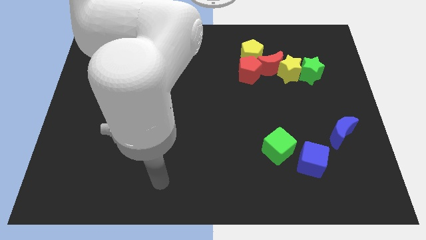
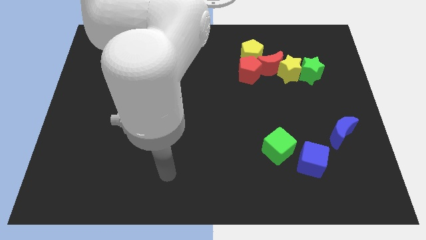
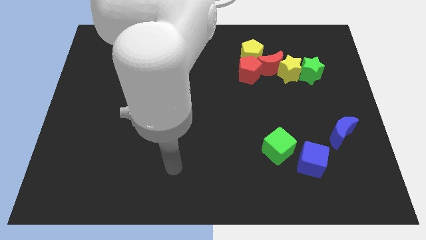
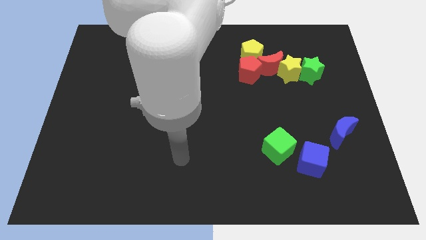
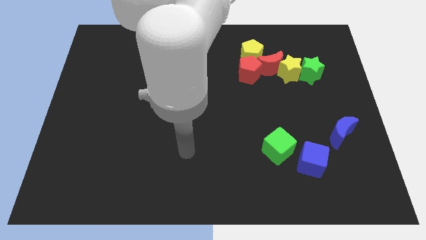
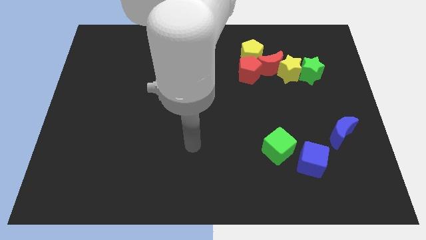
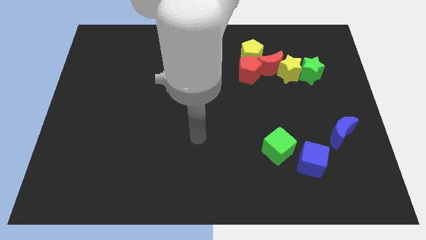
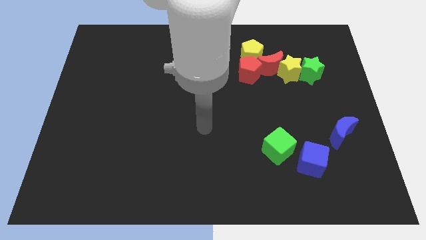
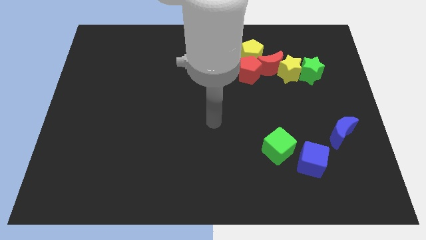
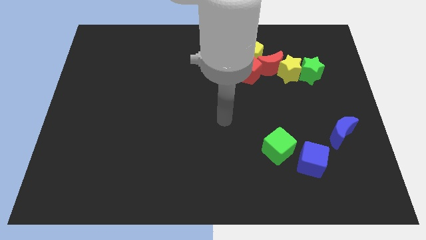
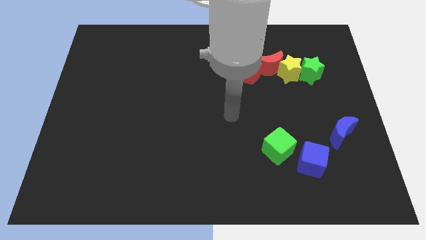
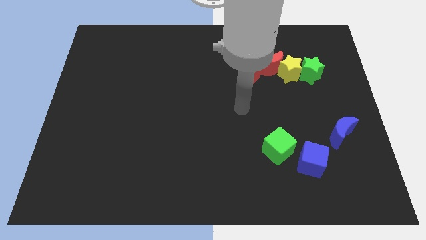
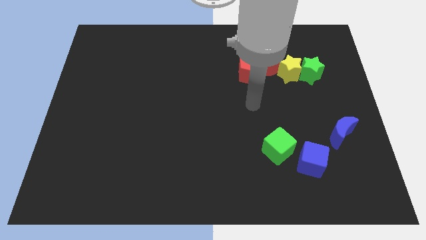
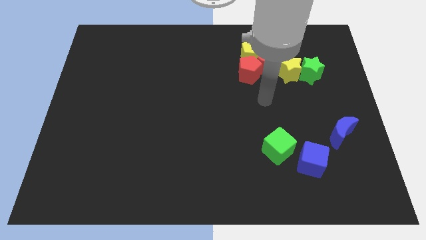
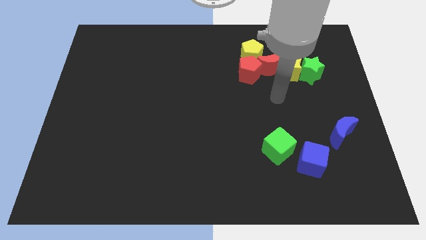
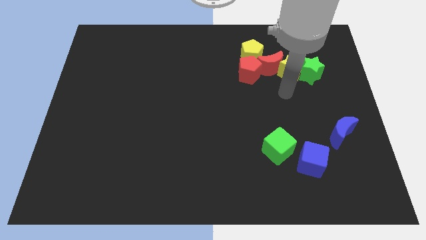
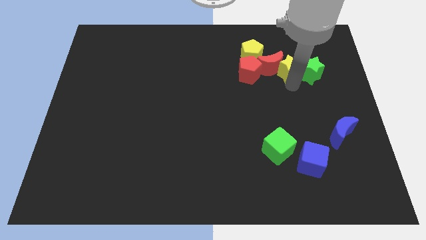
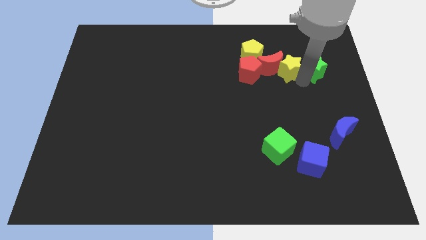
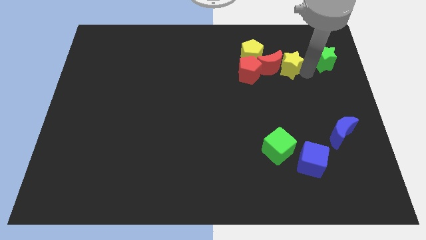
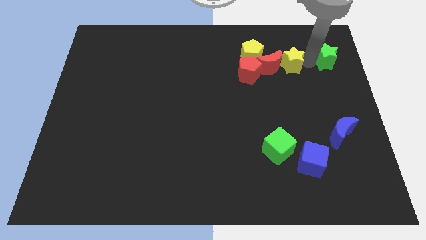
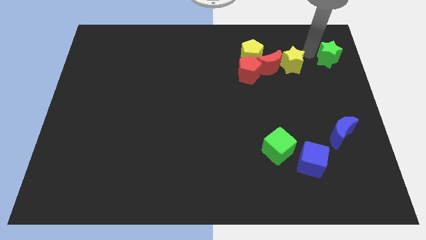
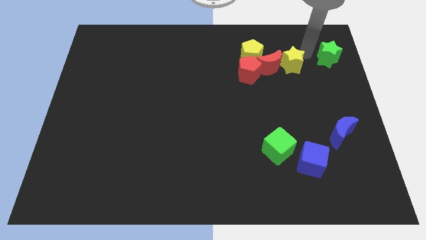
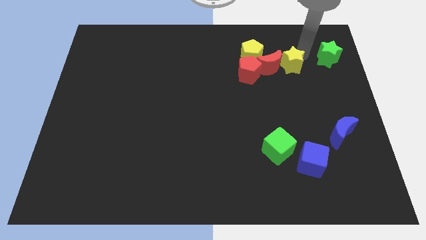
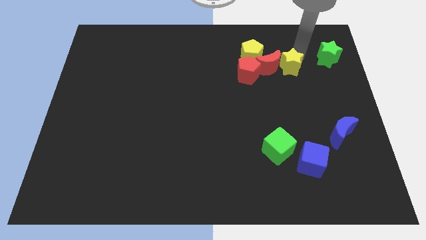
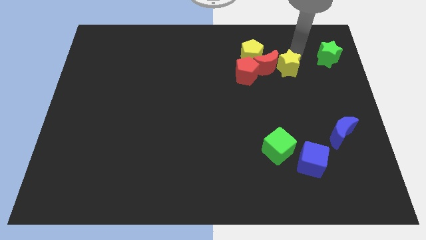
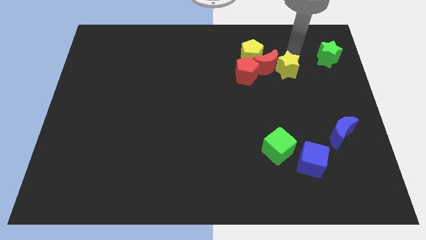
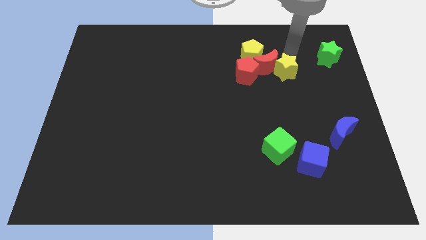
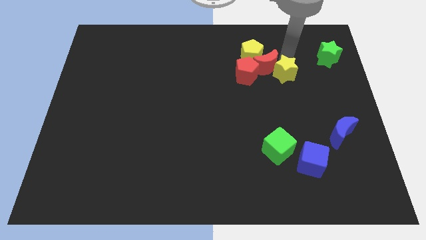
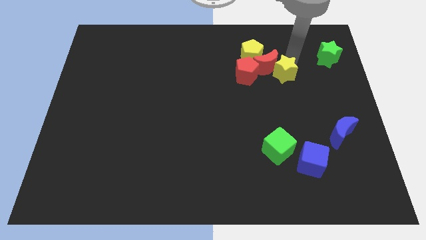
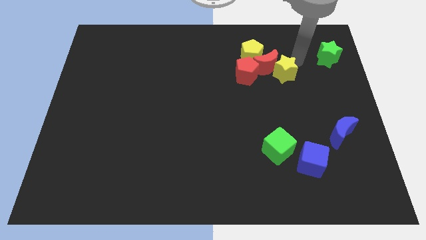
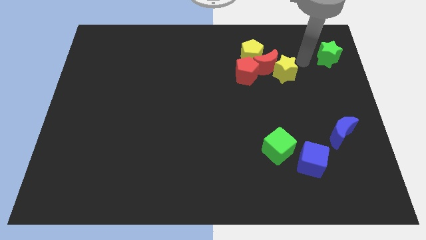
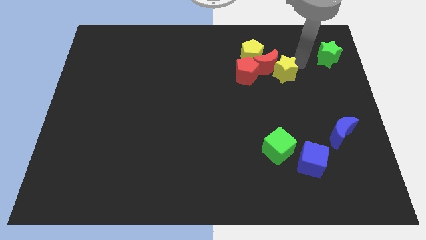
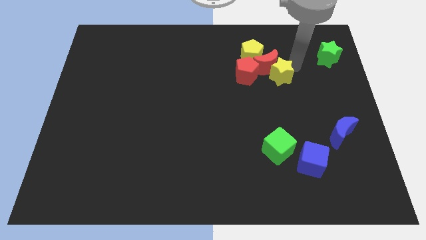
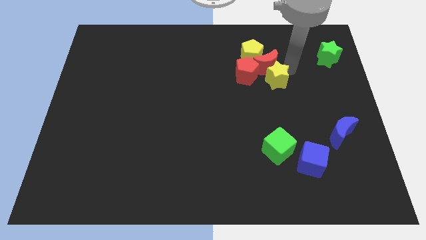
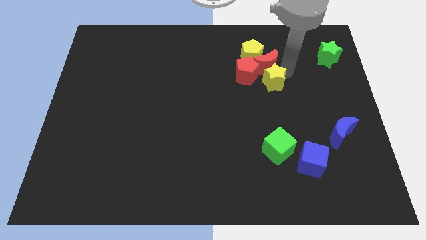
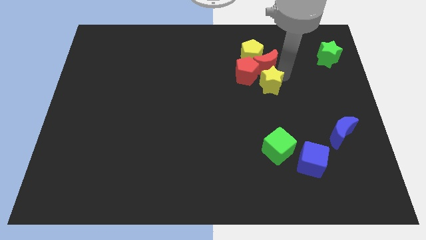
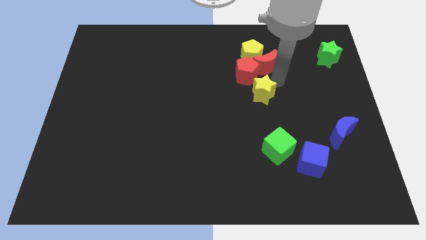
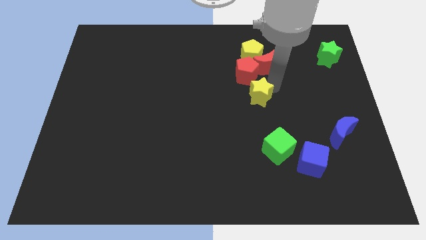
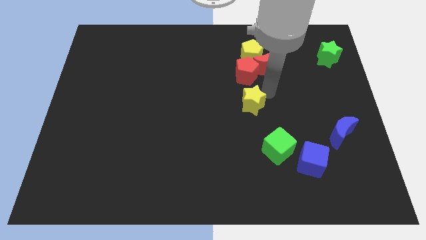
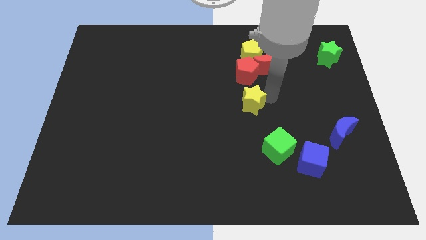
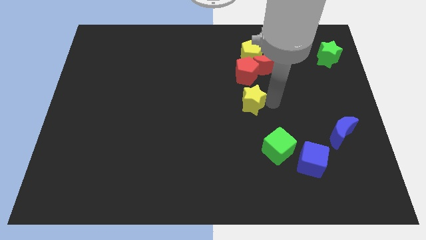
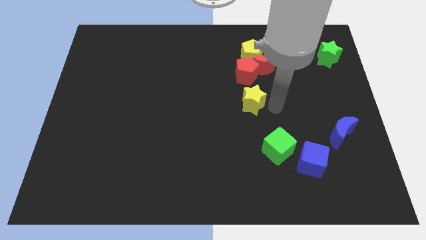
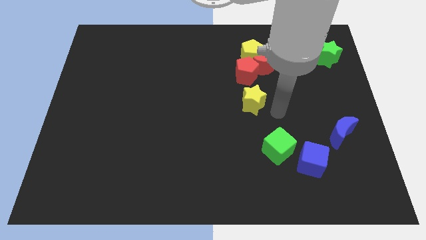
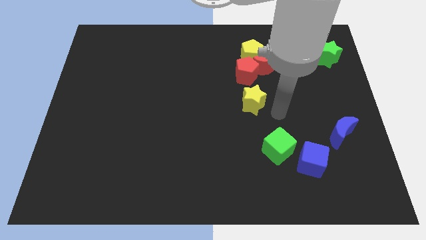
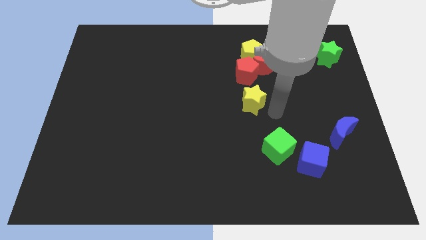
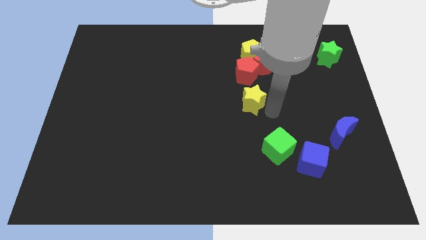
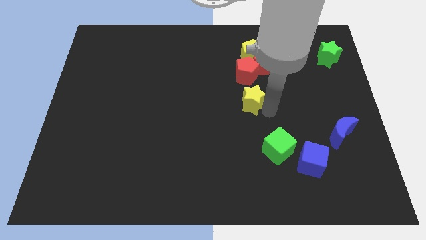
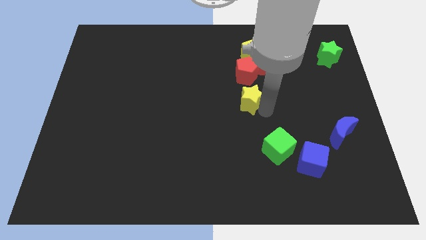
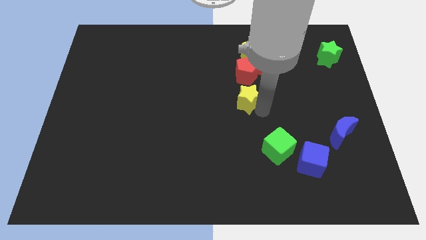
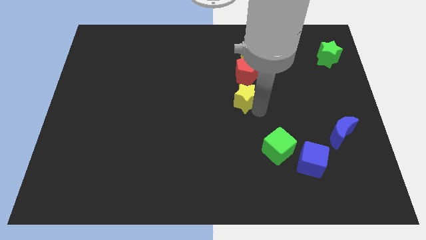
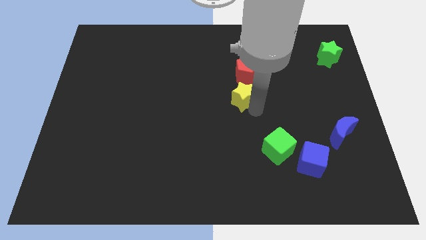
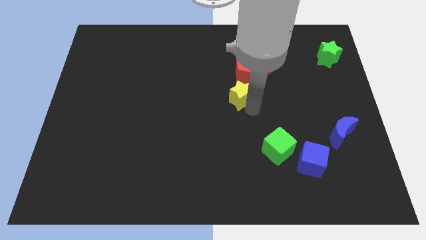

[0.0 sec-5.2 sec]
put the yellow star to the bottom left of the red pentagon

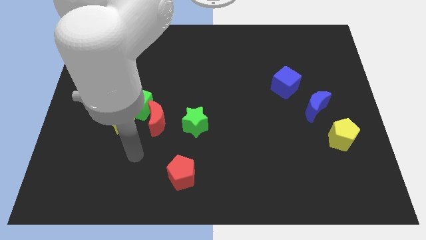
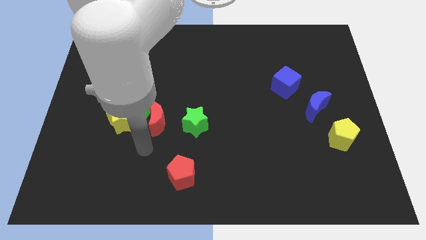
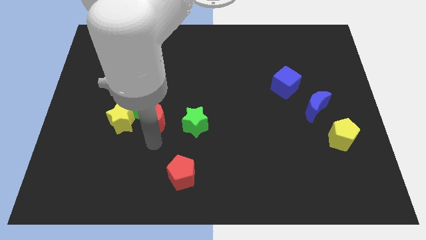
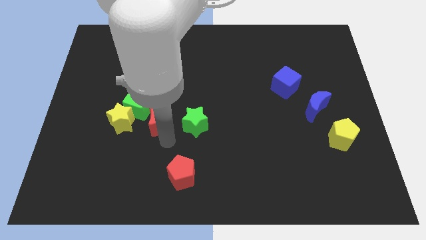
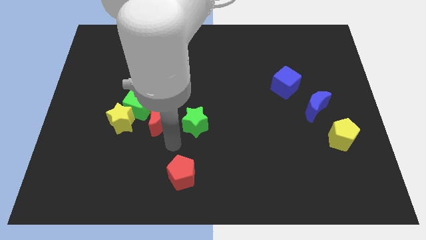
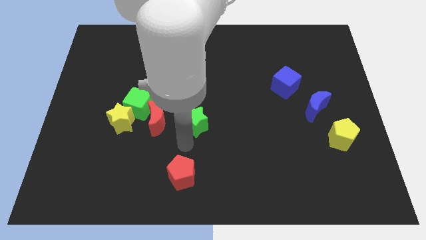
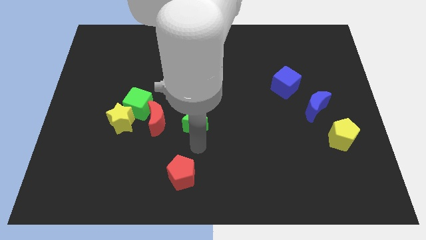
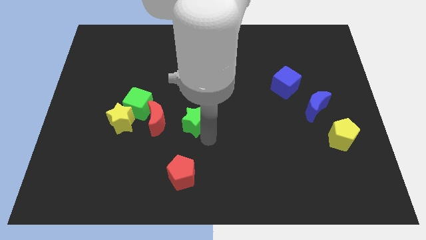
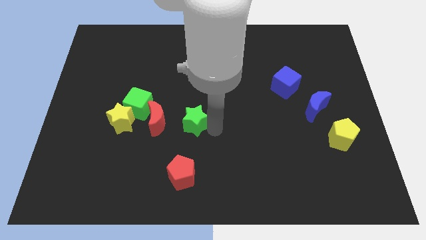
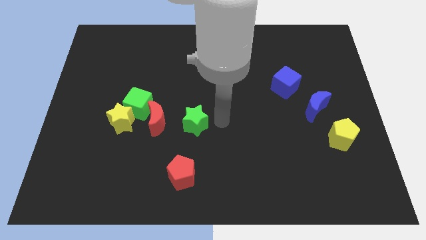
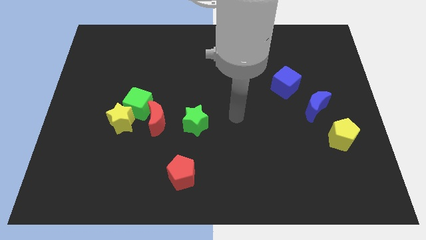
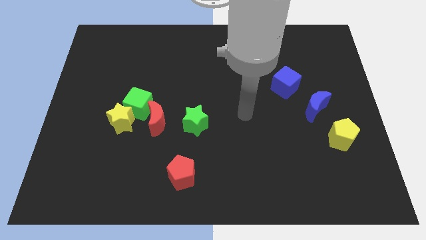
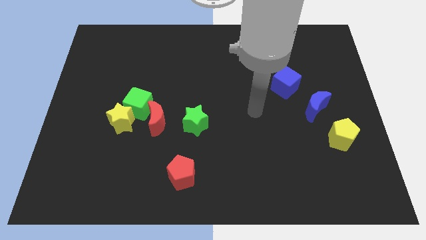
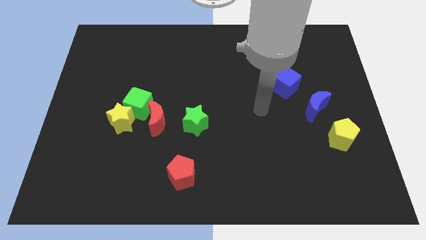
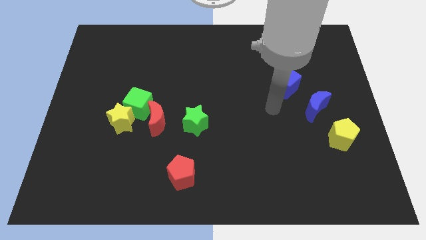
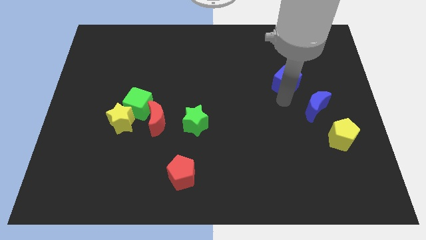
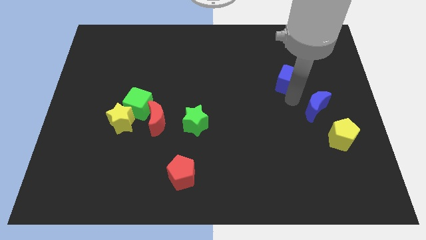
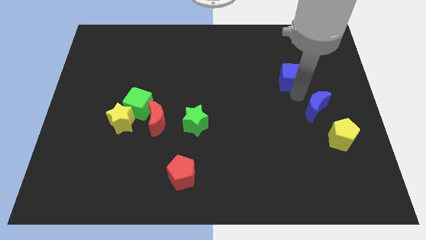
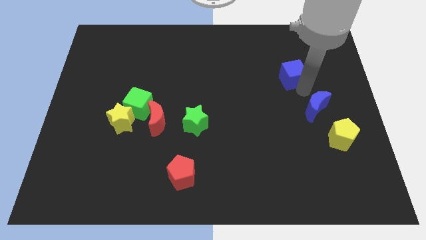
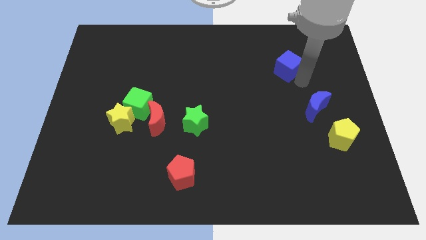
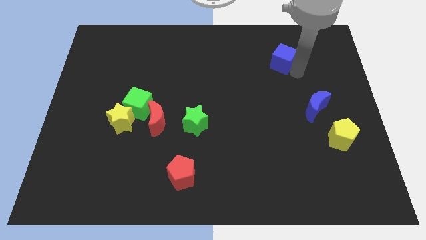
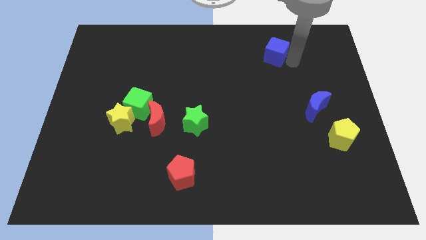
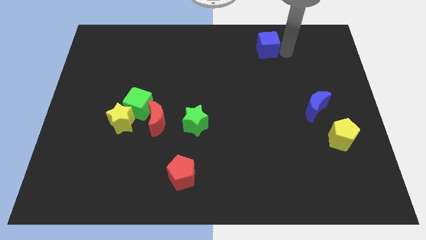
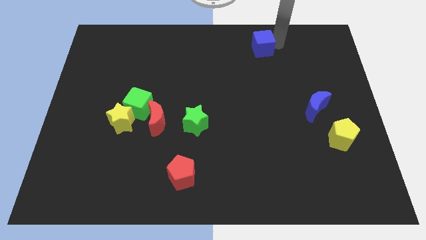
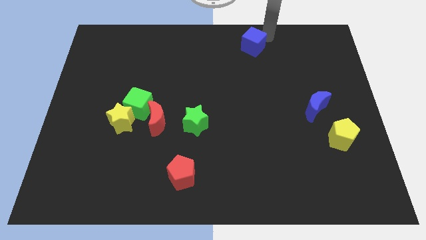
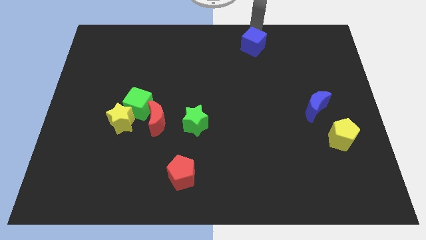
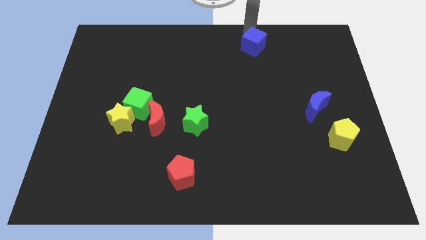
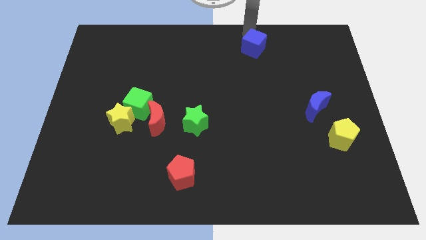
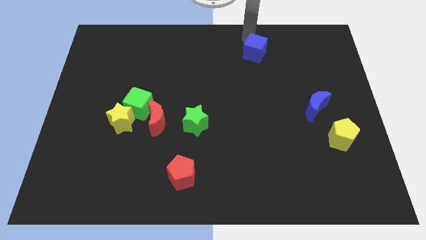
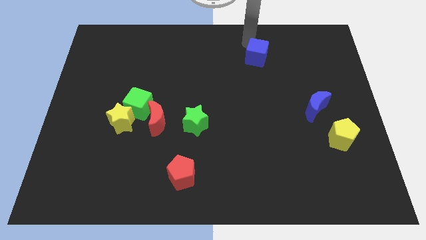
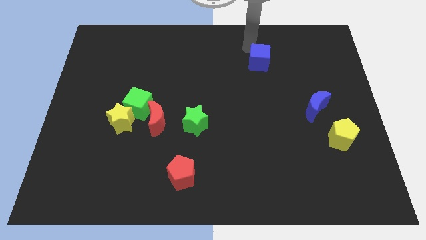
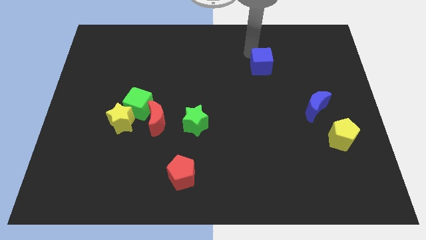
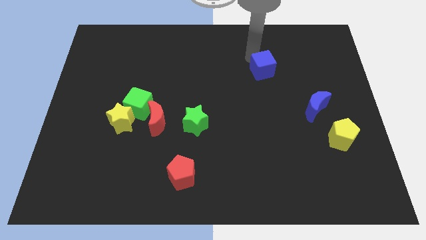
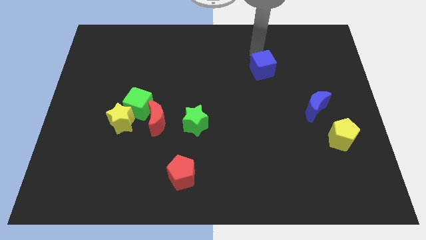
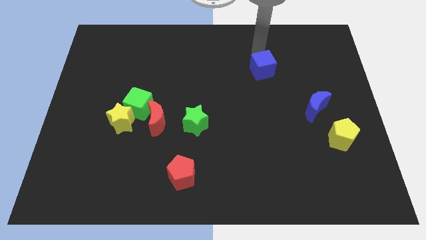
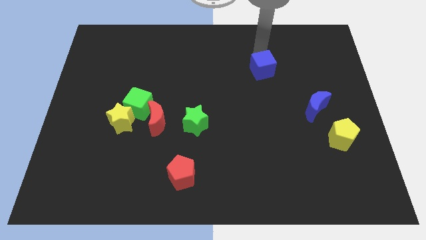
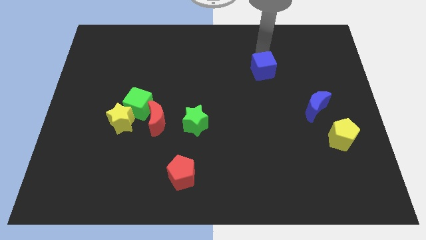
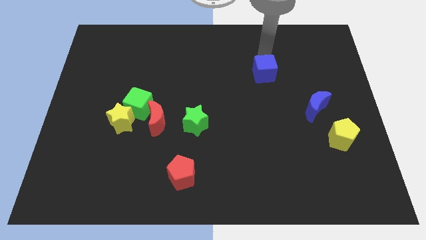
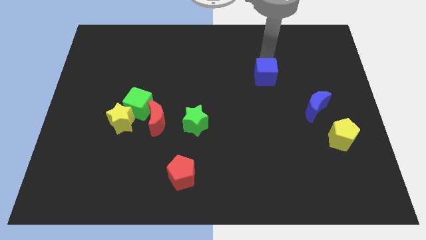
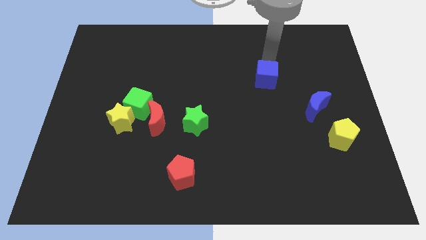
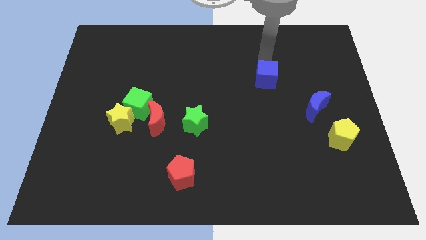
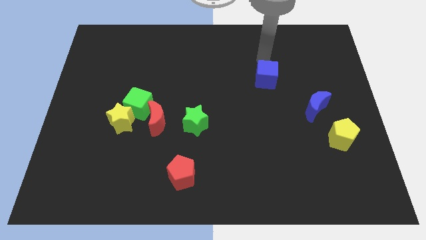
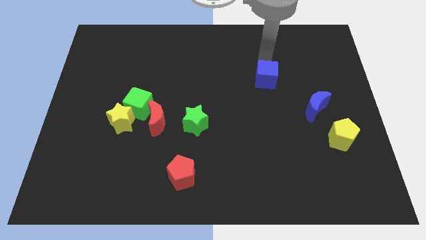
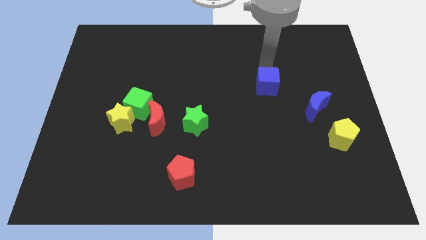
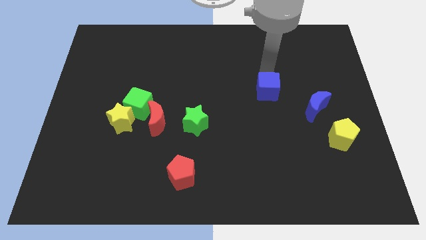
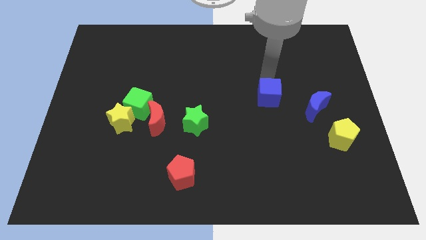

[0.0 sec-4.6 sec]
put the blue cube left of the blue moon
